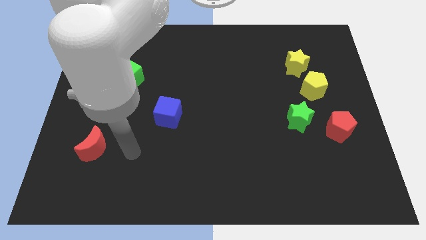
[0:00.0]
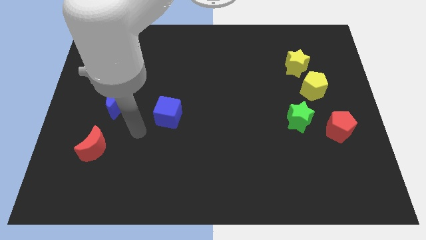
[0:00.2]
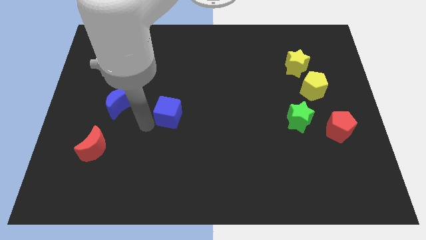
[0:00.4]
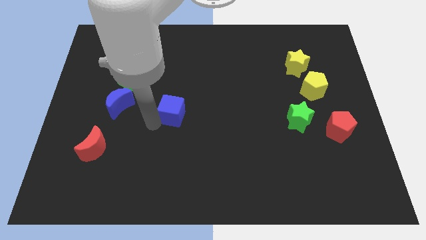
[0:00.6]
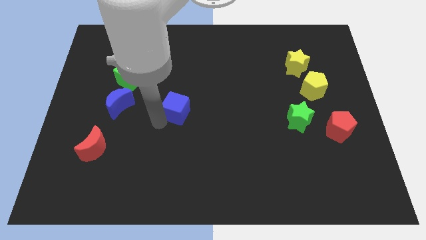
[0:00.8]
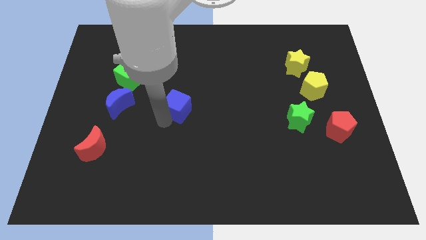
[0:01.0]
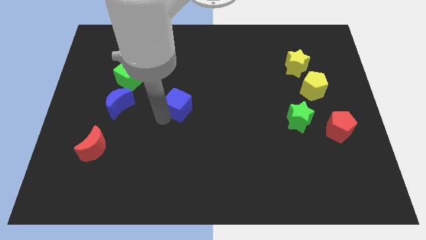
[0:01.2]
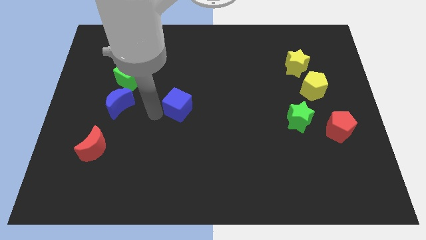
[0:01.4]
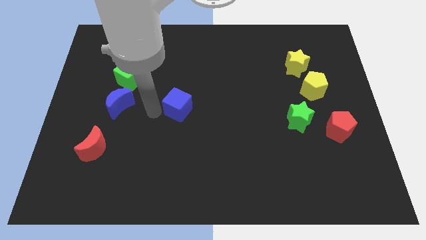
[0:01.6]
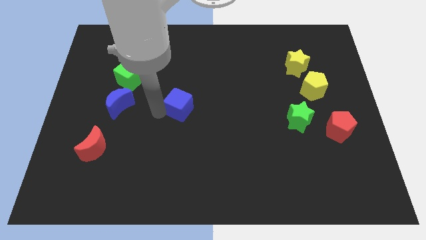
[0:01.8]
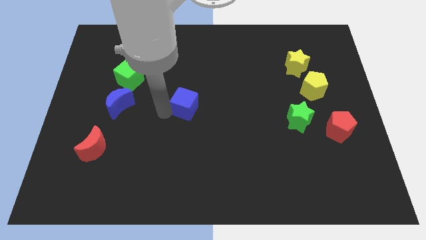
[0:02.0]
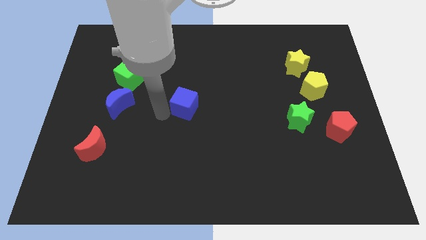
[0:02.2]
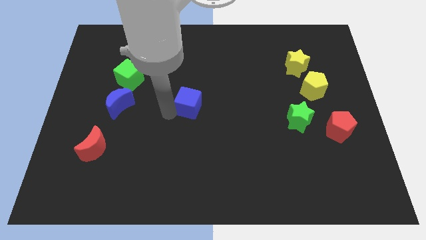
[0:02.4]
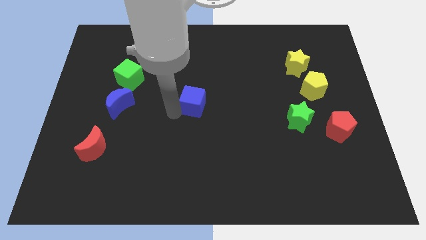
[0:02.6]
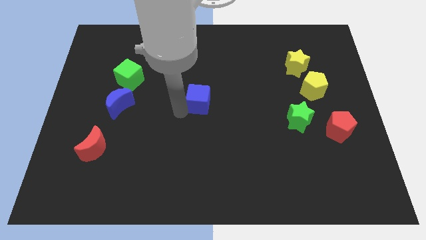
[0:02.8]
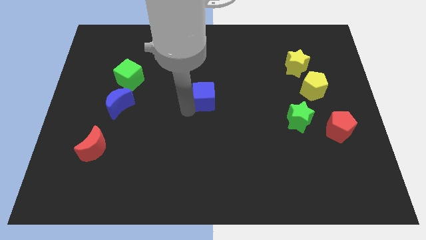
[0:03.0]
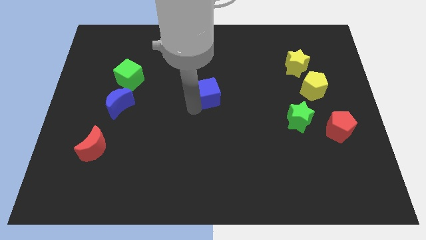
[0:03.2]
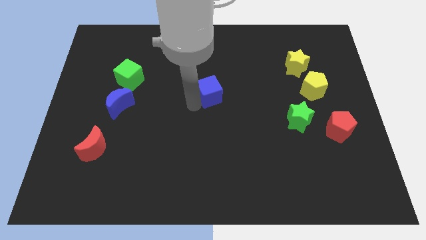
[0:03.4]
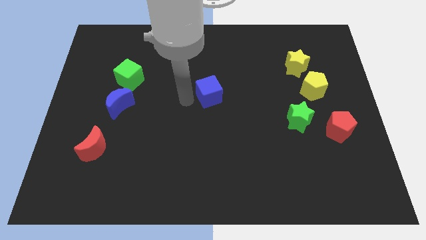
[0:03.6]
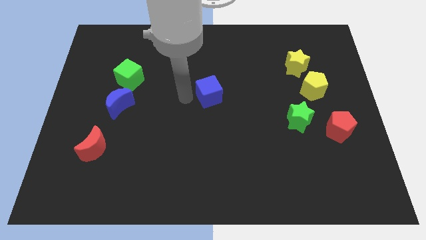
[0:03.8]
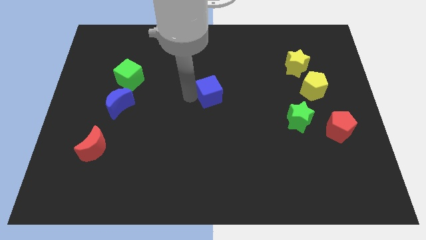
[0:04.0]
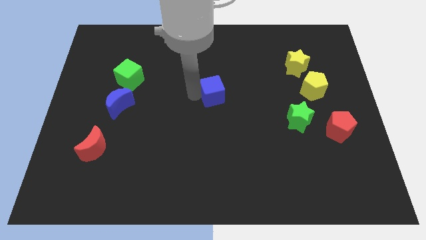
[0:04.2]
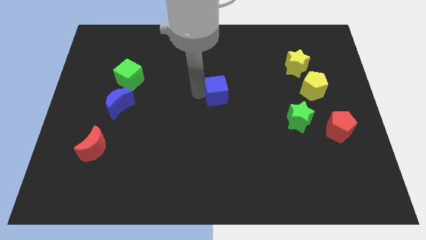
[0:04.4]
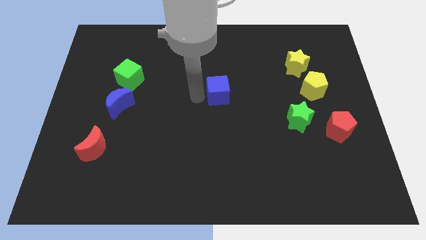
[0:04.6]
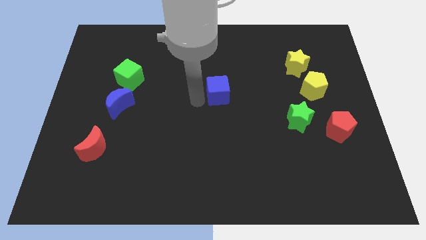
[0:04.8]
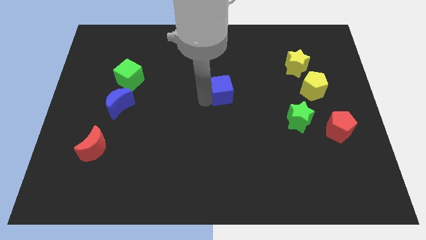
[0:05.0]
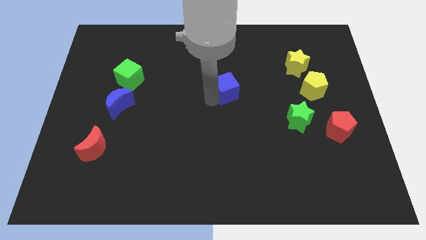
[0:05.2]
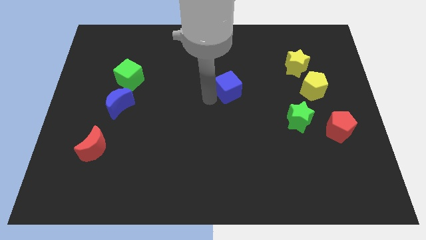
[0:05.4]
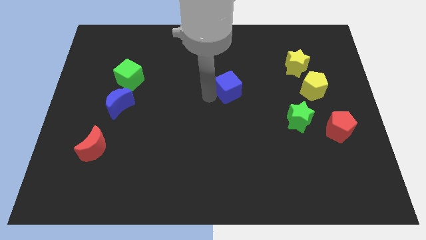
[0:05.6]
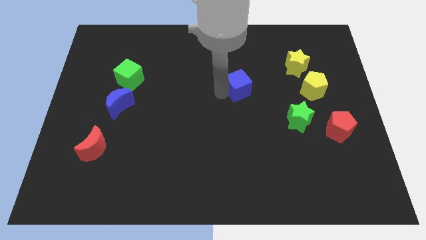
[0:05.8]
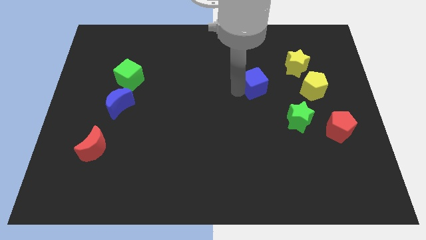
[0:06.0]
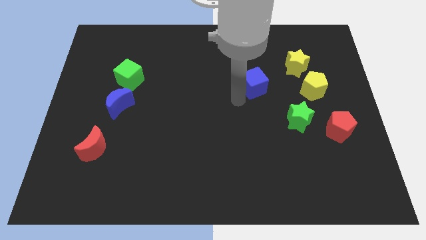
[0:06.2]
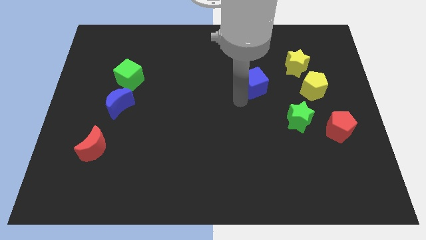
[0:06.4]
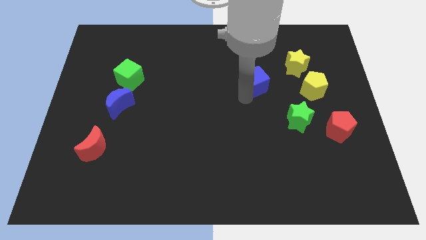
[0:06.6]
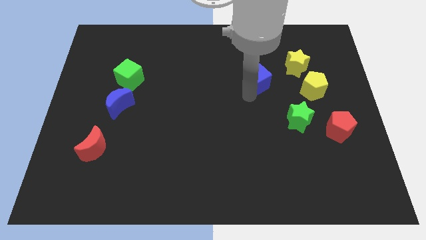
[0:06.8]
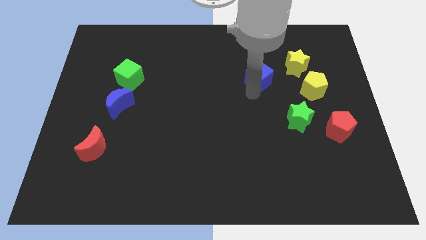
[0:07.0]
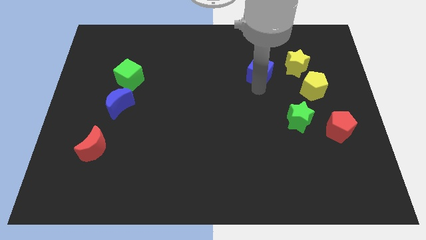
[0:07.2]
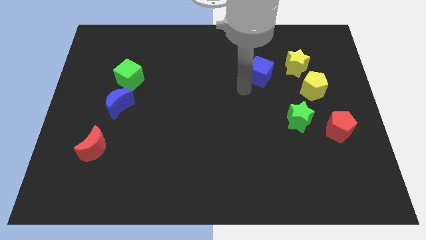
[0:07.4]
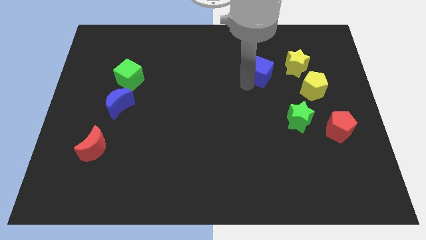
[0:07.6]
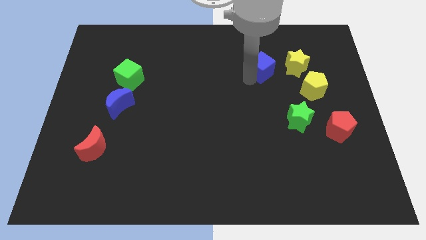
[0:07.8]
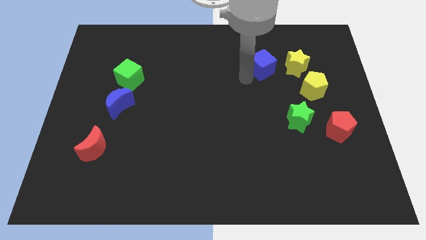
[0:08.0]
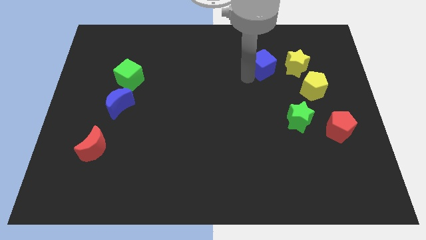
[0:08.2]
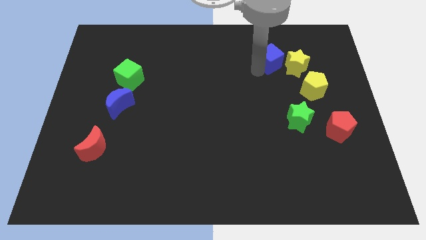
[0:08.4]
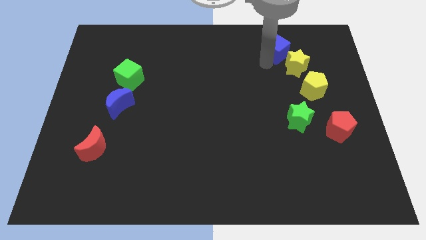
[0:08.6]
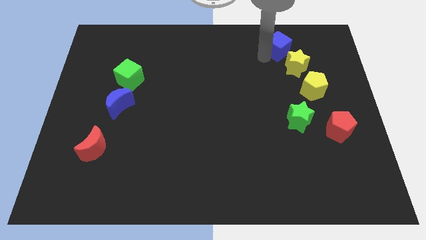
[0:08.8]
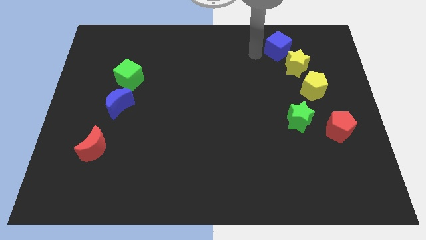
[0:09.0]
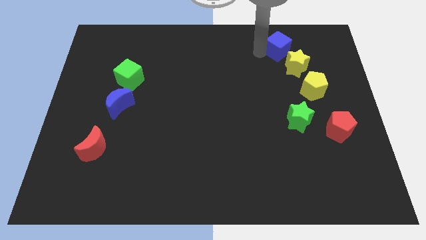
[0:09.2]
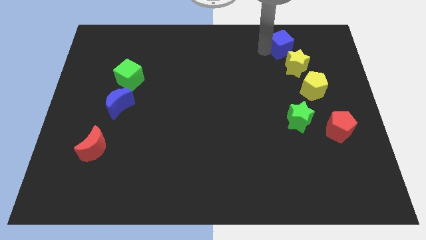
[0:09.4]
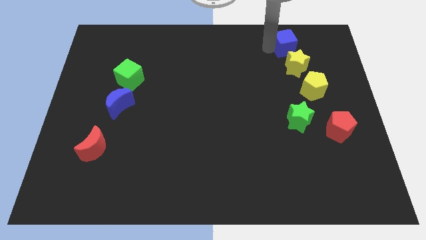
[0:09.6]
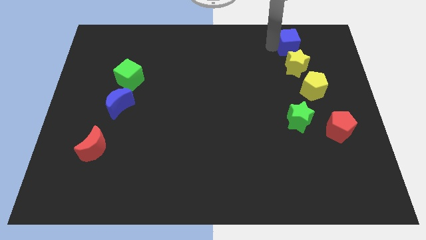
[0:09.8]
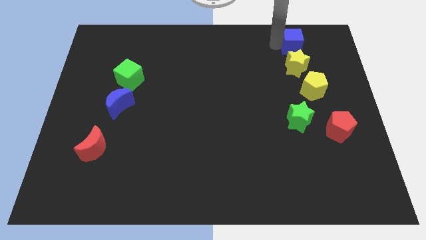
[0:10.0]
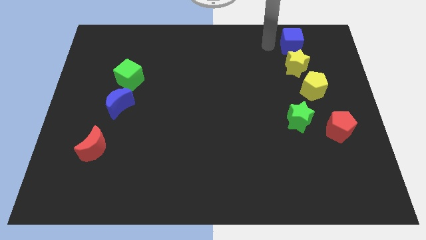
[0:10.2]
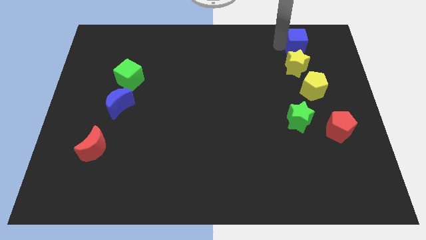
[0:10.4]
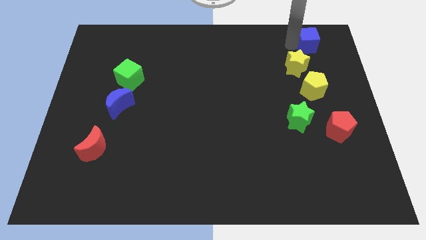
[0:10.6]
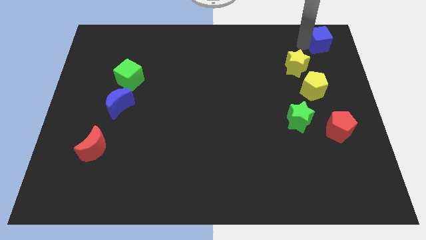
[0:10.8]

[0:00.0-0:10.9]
push the blue cube to the top right corner

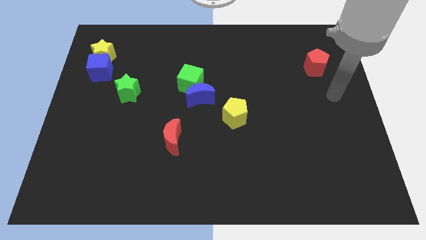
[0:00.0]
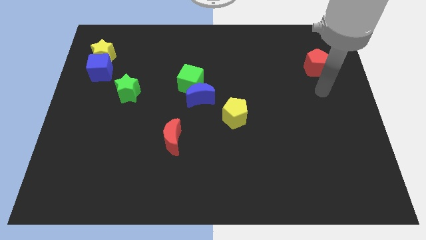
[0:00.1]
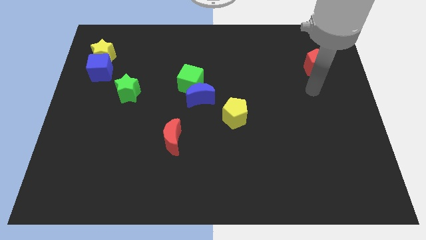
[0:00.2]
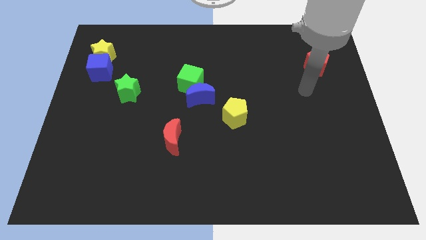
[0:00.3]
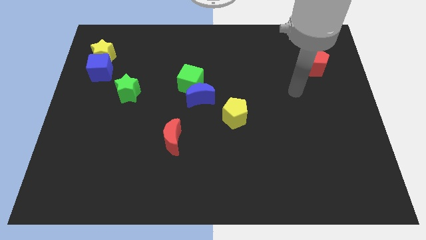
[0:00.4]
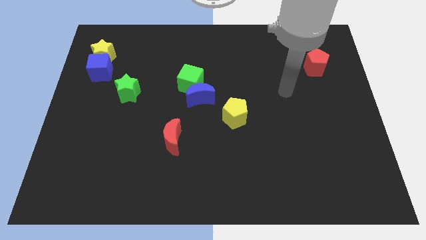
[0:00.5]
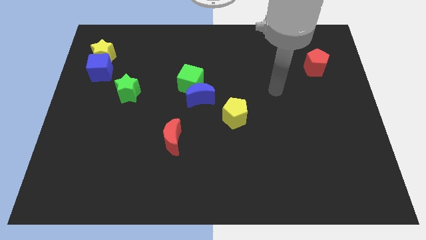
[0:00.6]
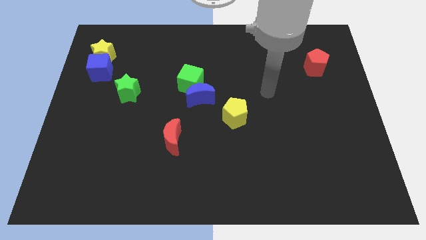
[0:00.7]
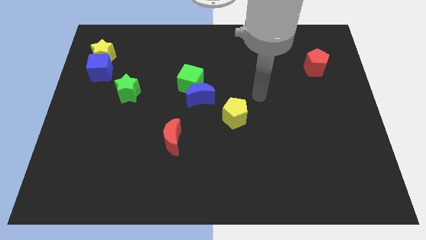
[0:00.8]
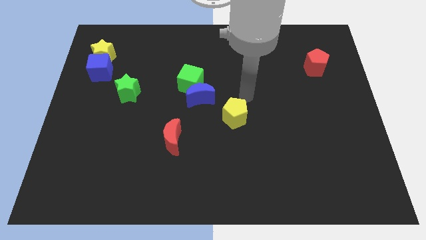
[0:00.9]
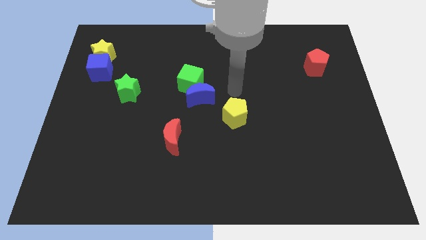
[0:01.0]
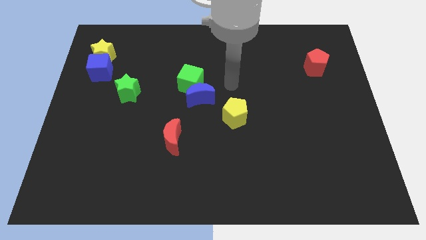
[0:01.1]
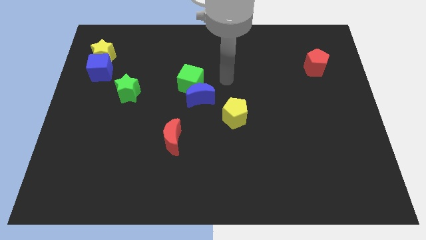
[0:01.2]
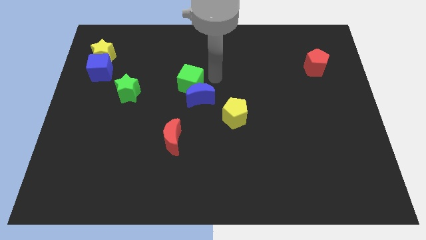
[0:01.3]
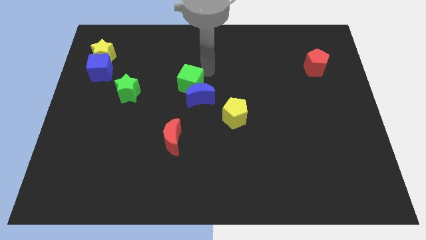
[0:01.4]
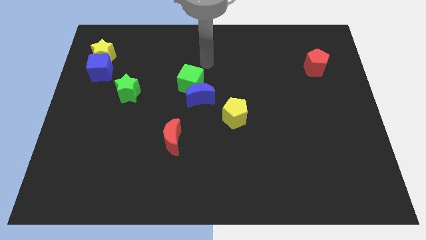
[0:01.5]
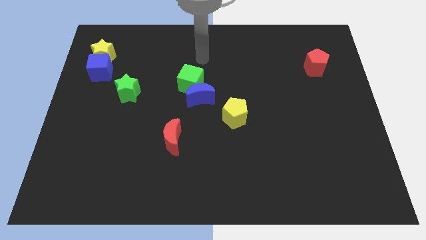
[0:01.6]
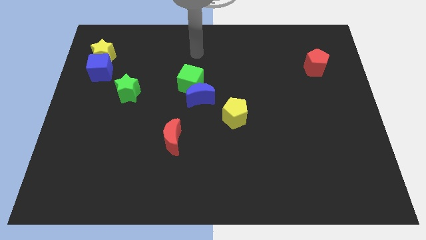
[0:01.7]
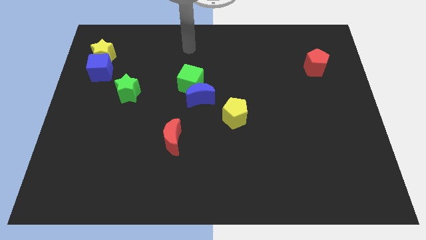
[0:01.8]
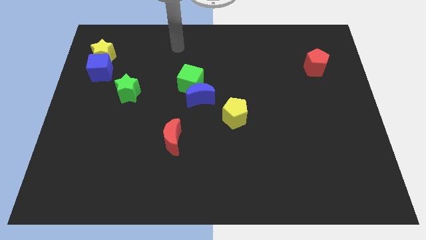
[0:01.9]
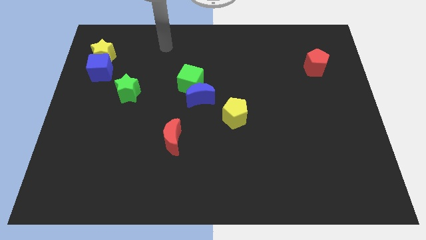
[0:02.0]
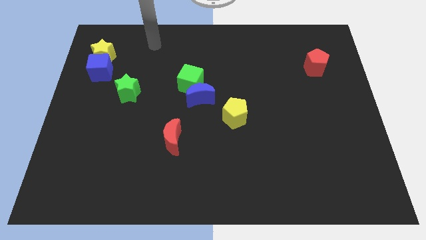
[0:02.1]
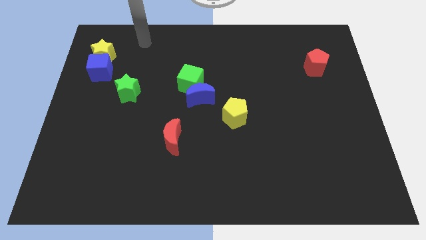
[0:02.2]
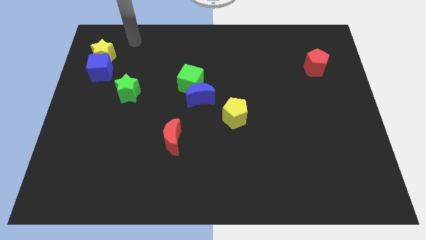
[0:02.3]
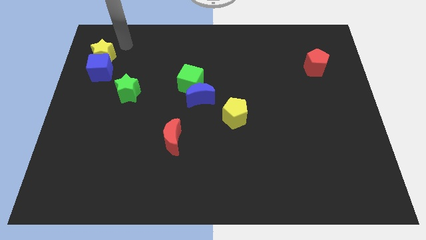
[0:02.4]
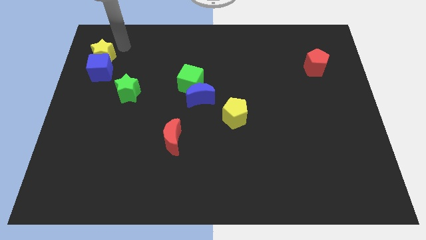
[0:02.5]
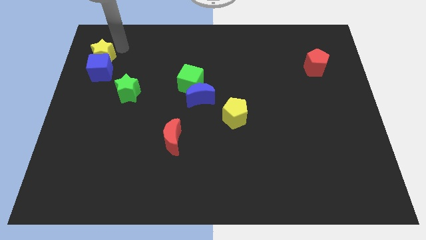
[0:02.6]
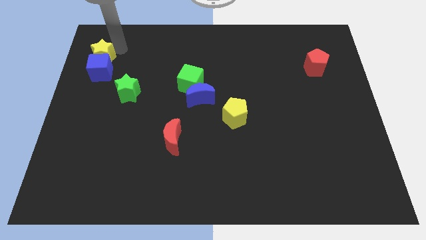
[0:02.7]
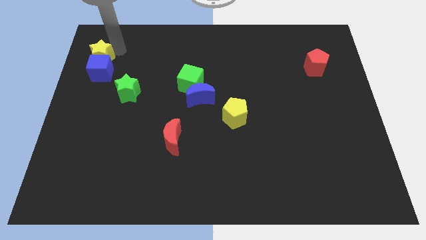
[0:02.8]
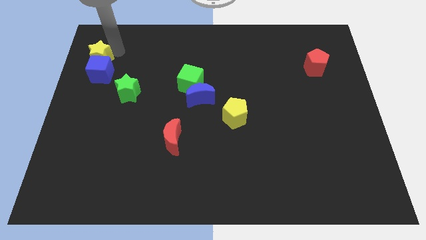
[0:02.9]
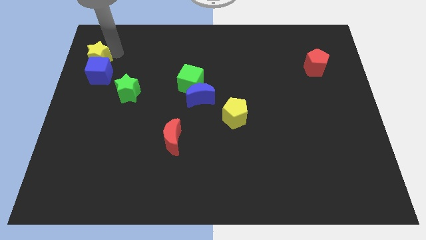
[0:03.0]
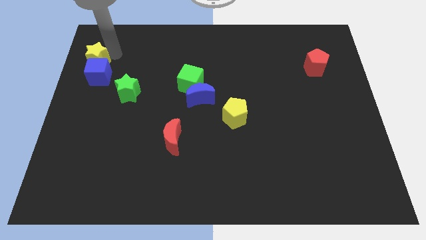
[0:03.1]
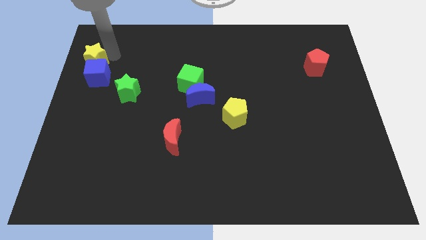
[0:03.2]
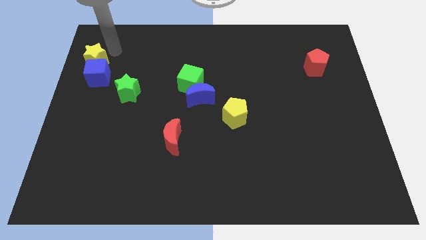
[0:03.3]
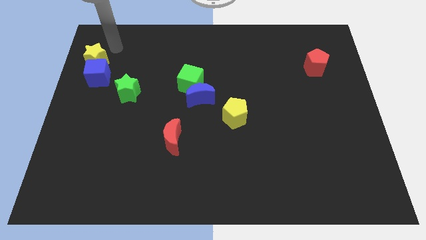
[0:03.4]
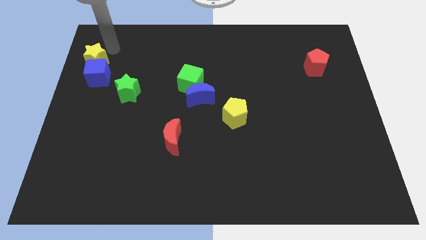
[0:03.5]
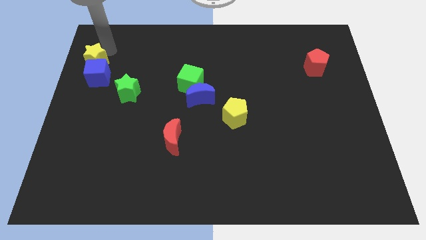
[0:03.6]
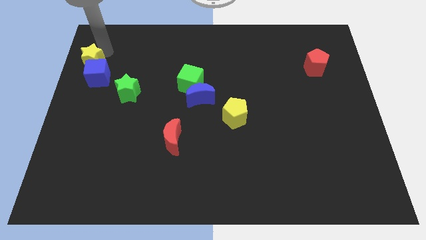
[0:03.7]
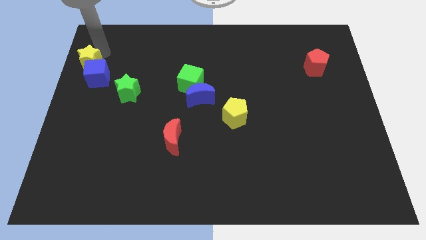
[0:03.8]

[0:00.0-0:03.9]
move the yellow star to the left side of the board
